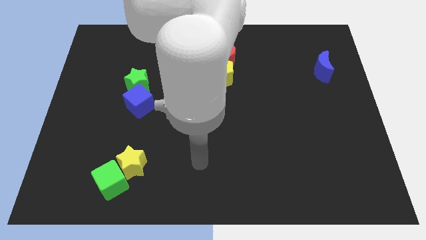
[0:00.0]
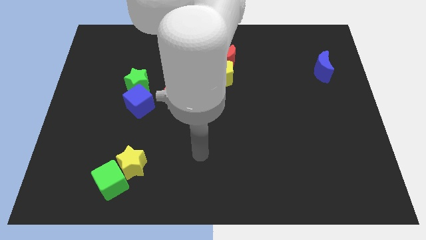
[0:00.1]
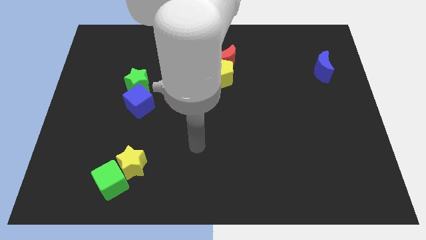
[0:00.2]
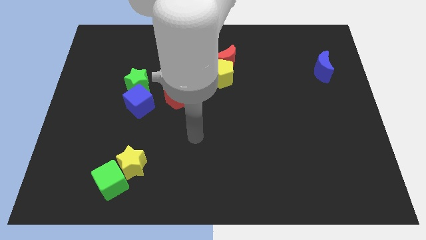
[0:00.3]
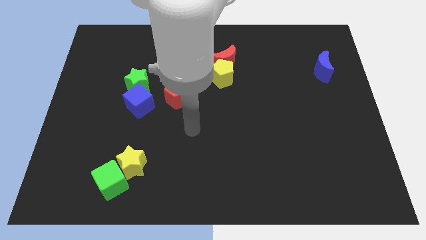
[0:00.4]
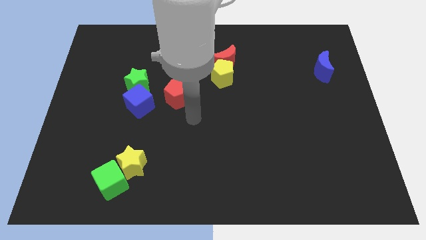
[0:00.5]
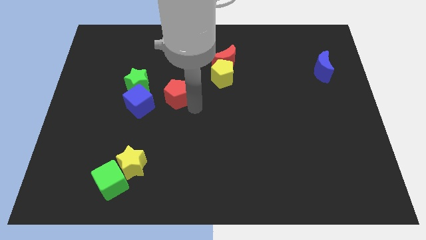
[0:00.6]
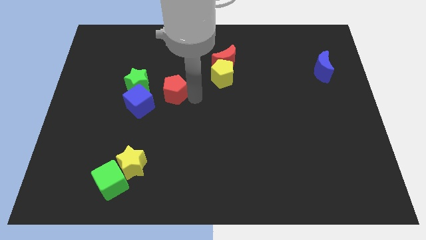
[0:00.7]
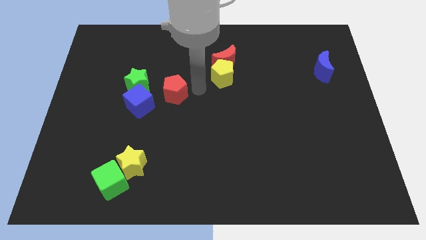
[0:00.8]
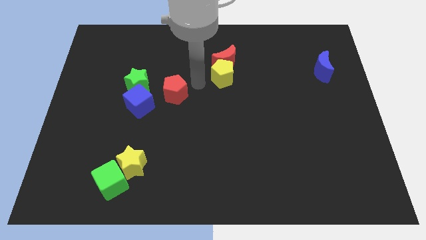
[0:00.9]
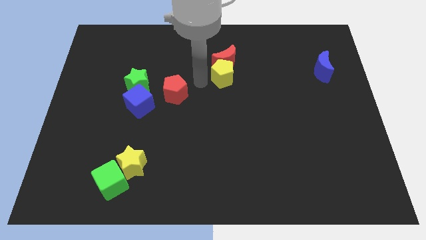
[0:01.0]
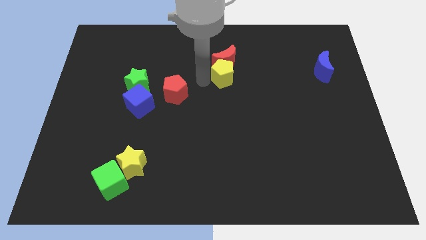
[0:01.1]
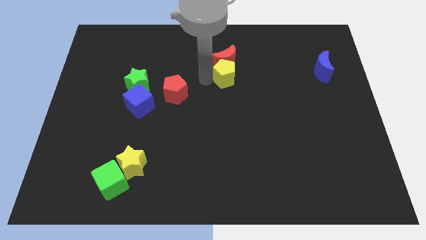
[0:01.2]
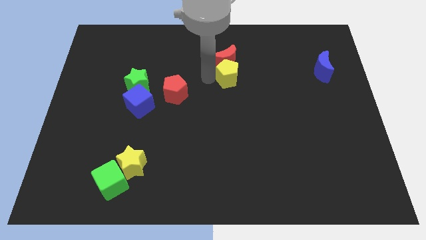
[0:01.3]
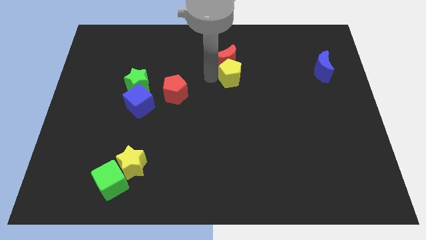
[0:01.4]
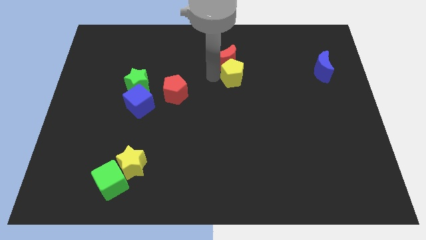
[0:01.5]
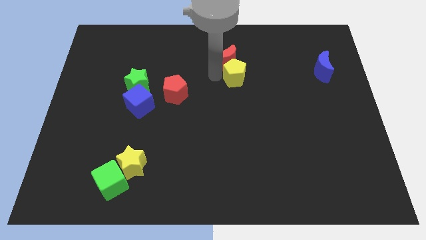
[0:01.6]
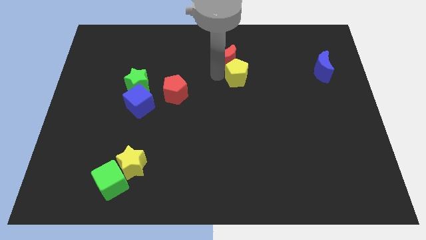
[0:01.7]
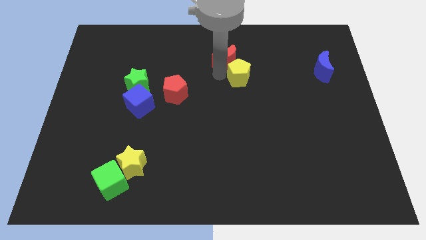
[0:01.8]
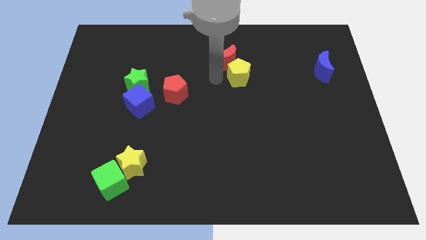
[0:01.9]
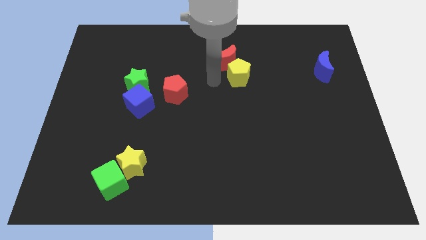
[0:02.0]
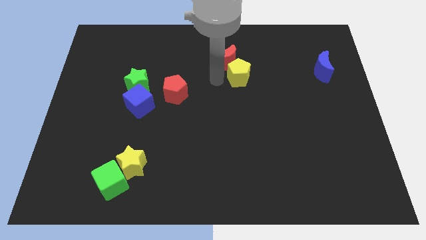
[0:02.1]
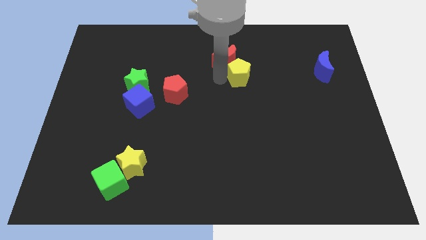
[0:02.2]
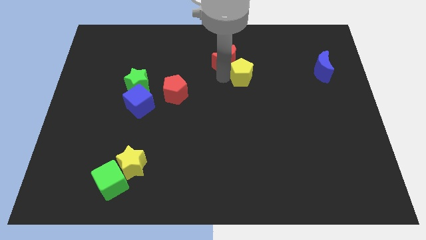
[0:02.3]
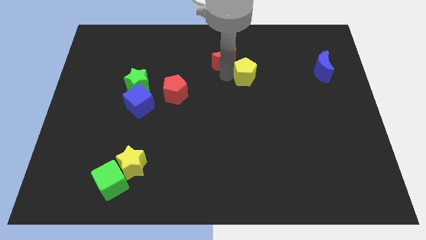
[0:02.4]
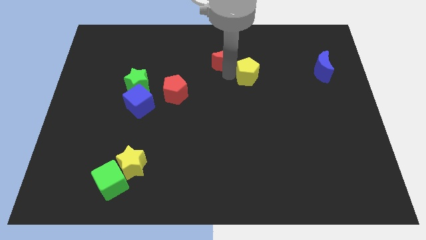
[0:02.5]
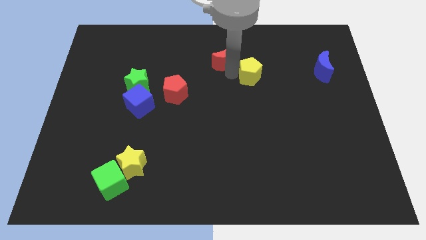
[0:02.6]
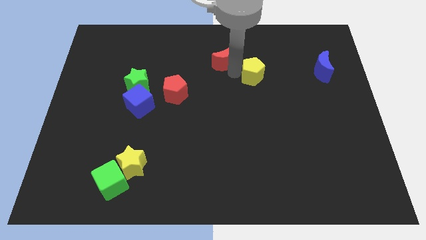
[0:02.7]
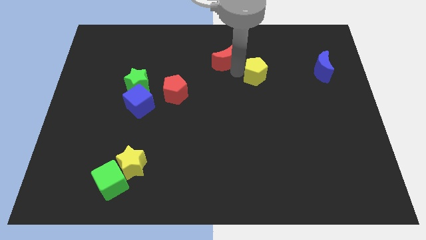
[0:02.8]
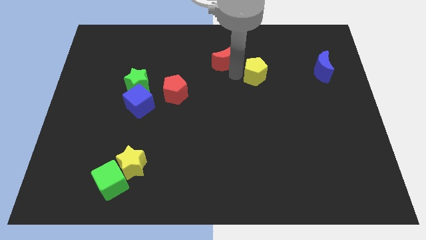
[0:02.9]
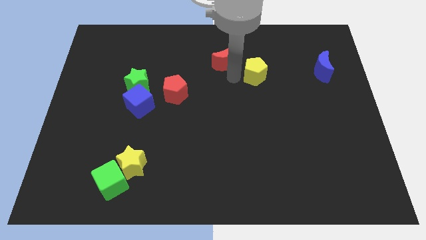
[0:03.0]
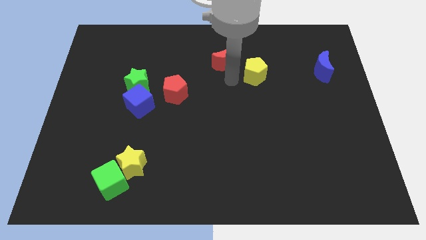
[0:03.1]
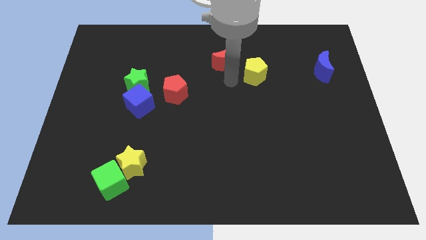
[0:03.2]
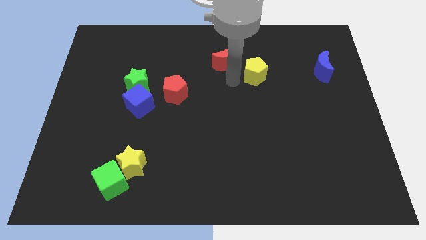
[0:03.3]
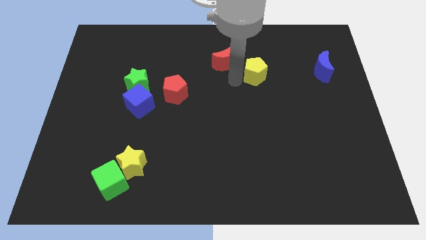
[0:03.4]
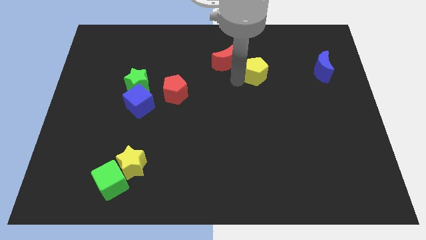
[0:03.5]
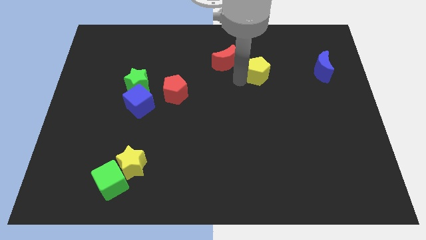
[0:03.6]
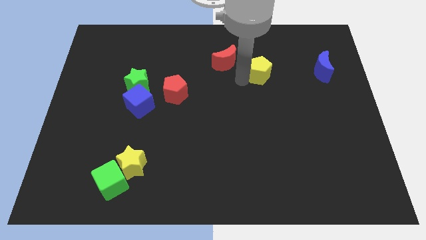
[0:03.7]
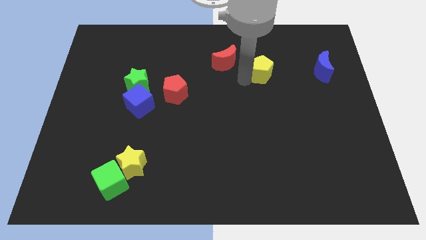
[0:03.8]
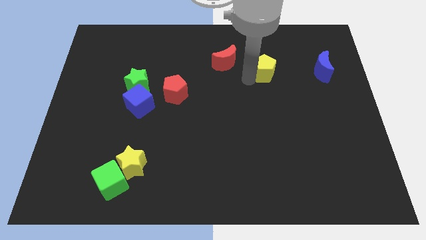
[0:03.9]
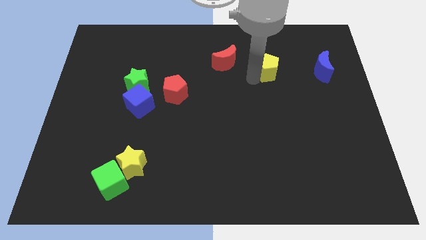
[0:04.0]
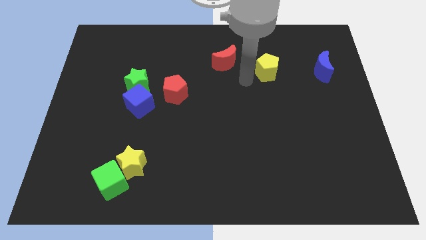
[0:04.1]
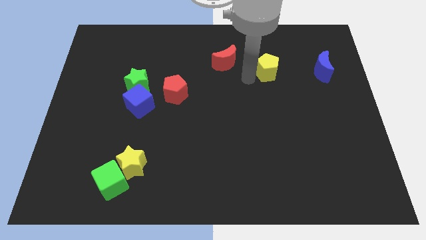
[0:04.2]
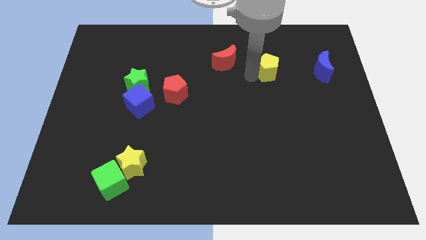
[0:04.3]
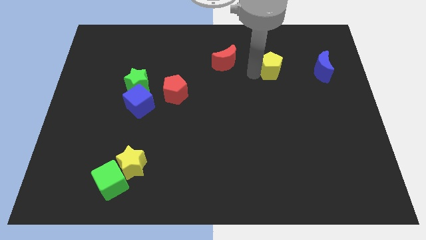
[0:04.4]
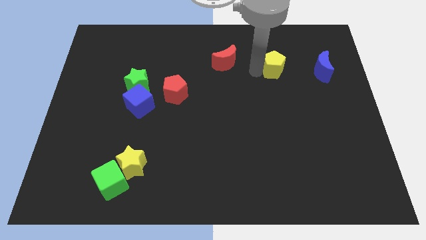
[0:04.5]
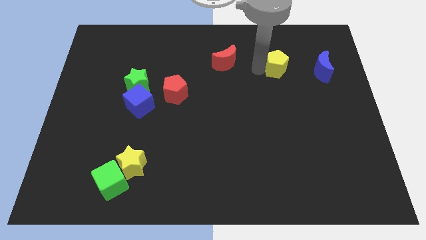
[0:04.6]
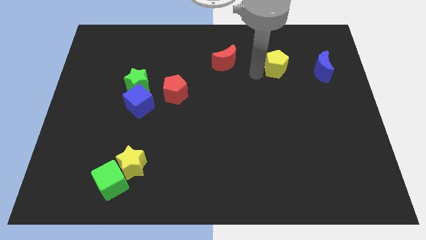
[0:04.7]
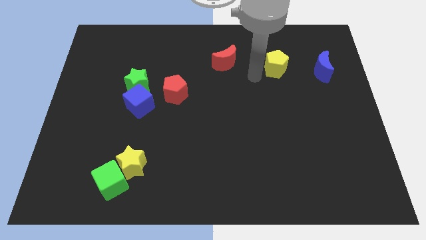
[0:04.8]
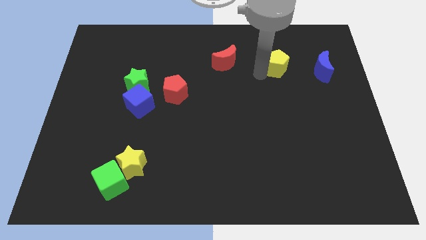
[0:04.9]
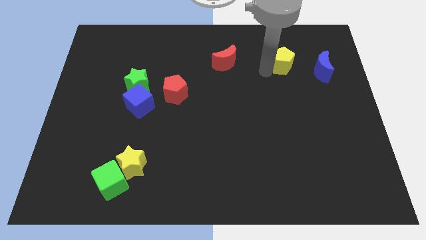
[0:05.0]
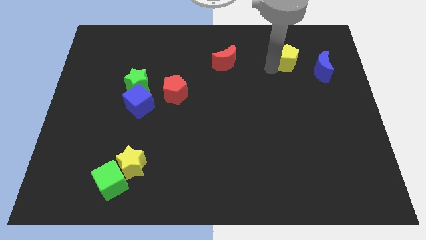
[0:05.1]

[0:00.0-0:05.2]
move the yellow pentagon diagonally up and to the left of the blue moon

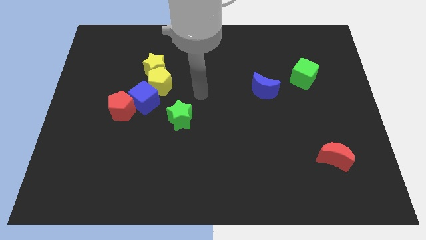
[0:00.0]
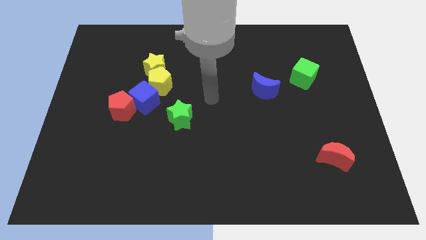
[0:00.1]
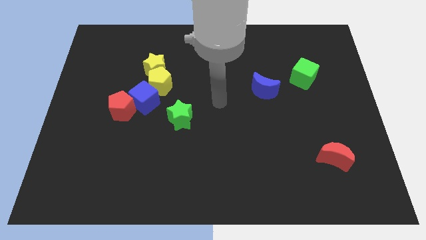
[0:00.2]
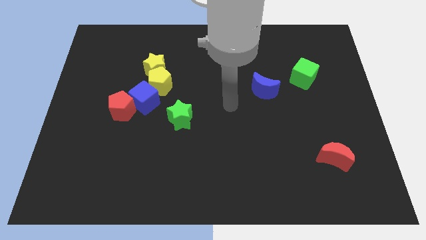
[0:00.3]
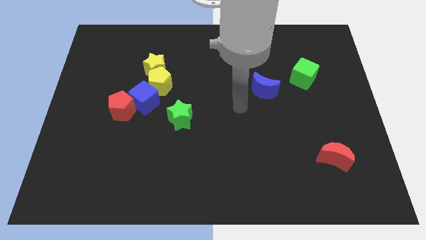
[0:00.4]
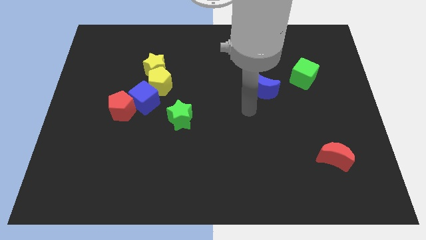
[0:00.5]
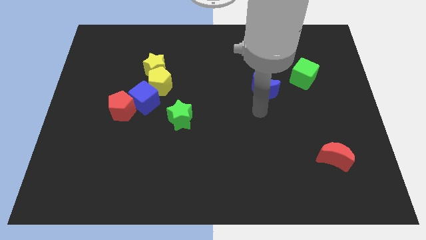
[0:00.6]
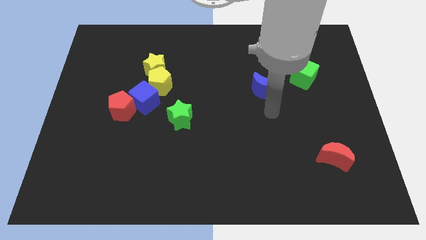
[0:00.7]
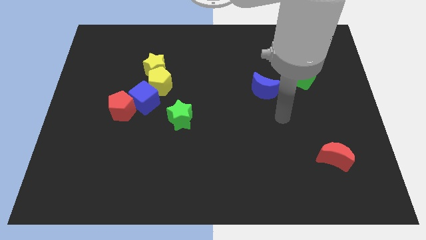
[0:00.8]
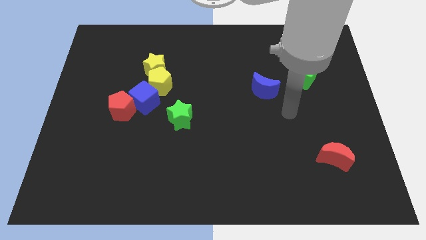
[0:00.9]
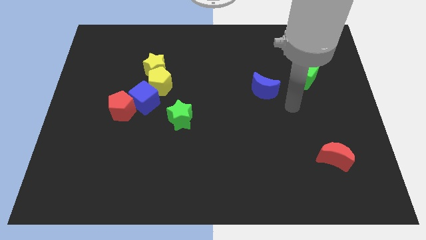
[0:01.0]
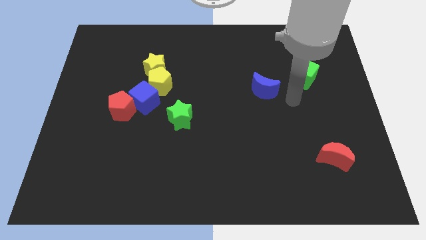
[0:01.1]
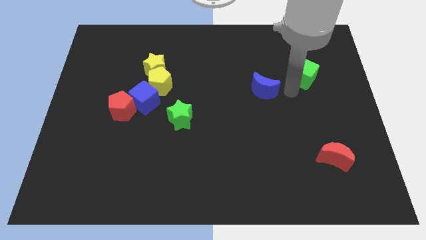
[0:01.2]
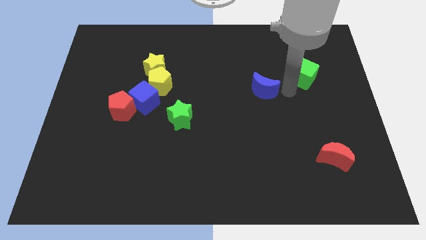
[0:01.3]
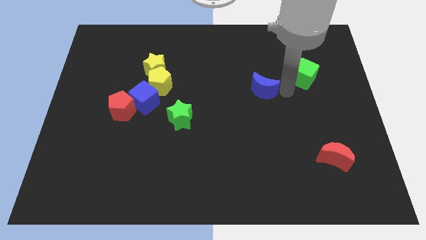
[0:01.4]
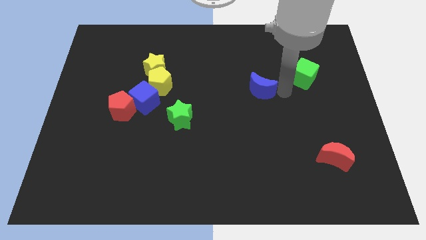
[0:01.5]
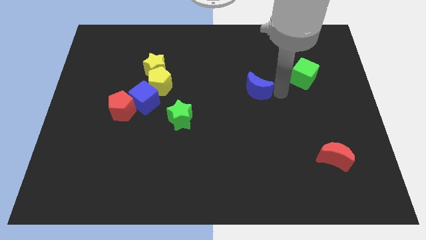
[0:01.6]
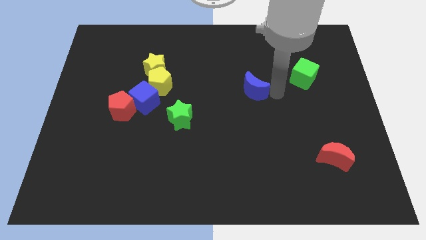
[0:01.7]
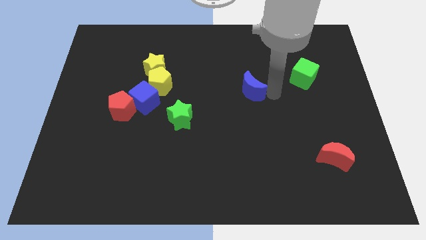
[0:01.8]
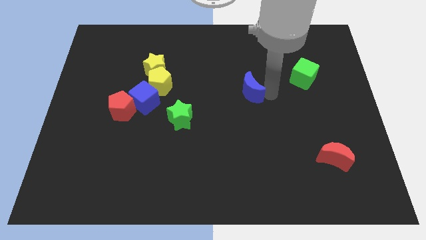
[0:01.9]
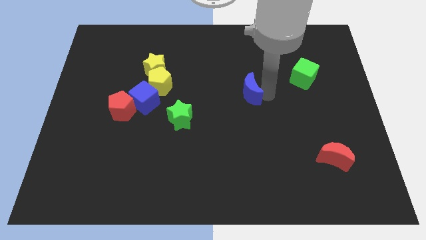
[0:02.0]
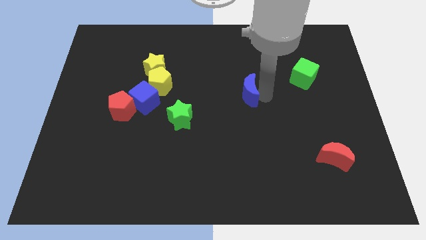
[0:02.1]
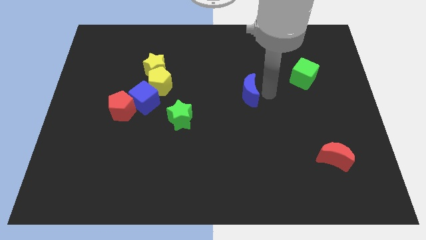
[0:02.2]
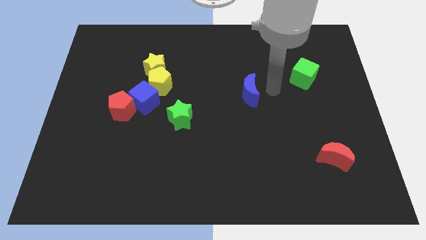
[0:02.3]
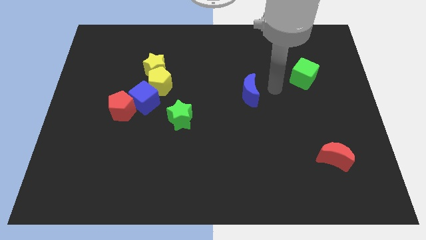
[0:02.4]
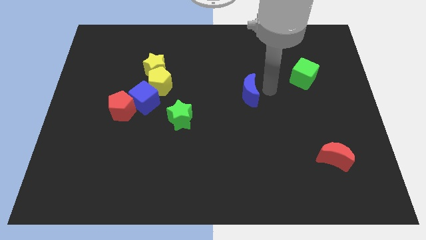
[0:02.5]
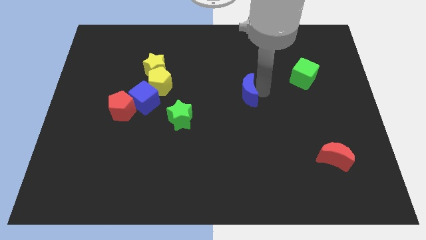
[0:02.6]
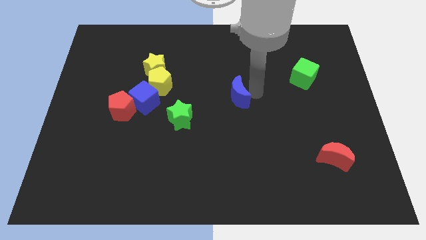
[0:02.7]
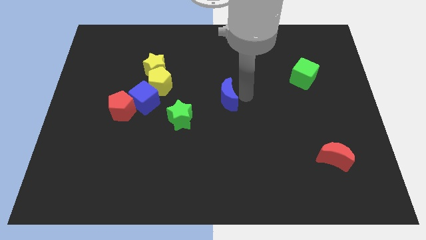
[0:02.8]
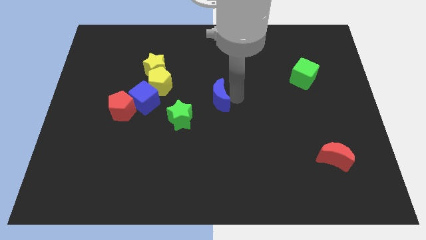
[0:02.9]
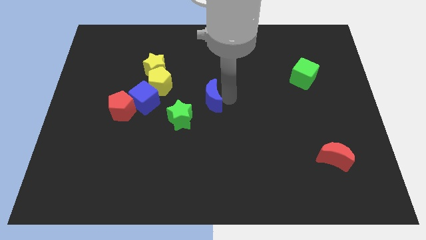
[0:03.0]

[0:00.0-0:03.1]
move the blue moon to the right side of the blue cube

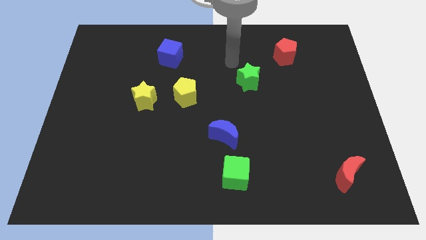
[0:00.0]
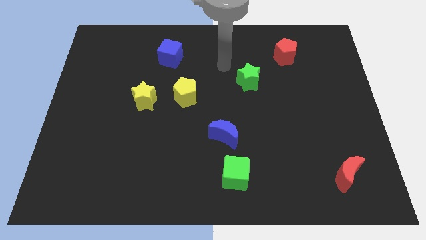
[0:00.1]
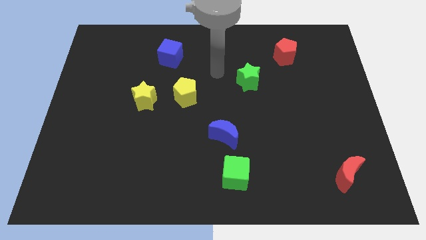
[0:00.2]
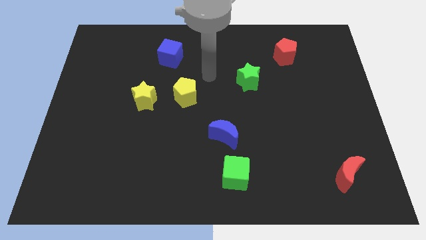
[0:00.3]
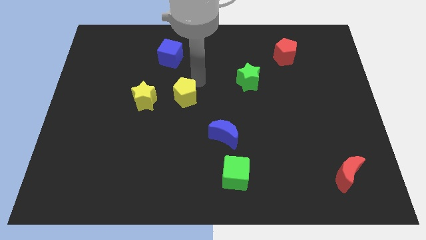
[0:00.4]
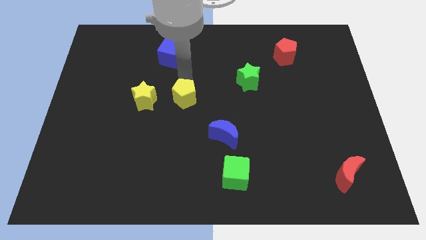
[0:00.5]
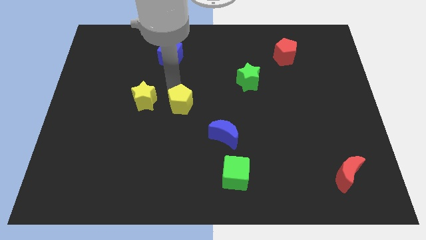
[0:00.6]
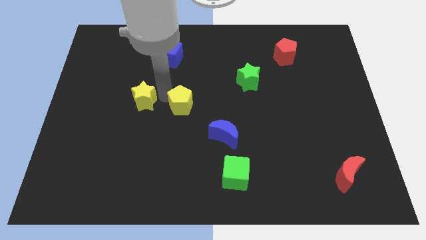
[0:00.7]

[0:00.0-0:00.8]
push the yellow star to the top left of the yellow pentagon
